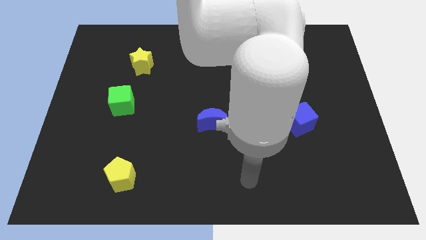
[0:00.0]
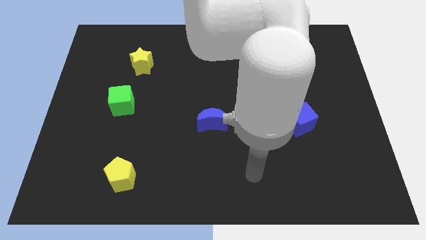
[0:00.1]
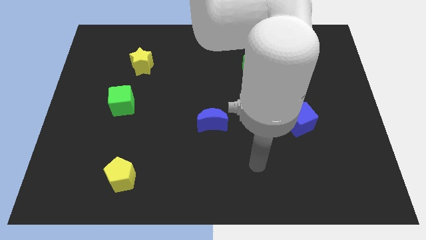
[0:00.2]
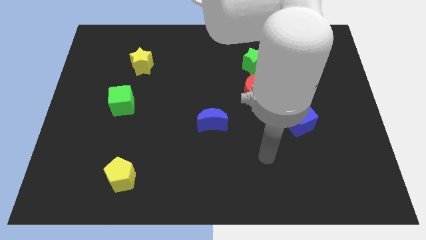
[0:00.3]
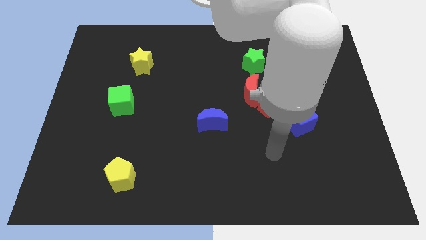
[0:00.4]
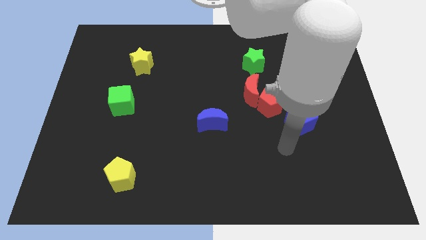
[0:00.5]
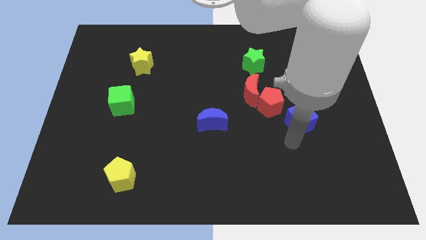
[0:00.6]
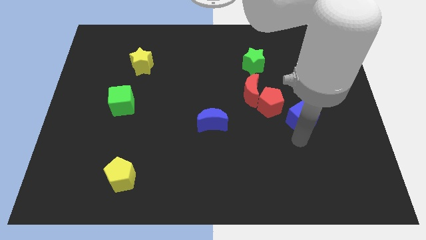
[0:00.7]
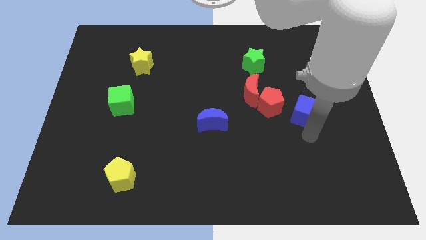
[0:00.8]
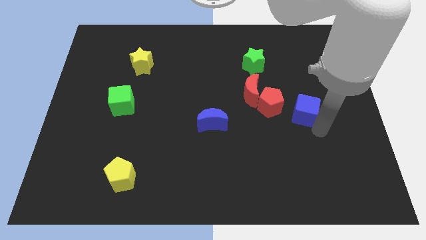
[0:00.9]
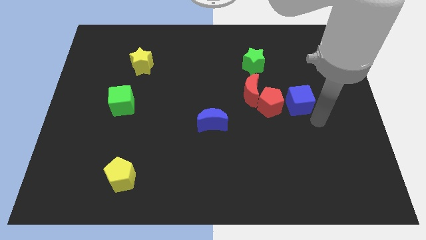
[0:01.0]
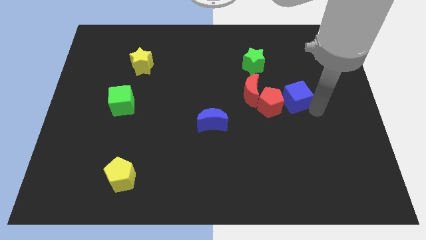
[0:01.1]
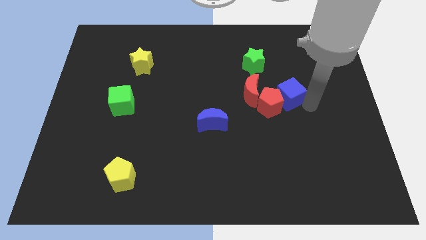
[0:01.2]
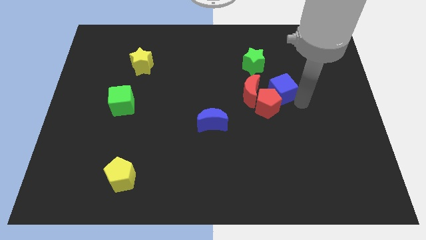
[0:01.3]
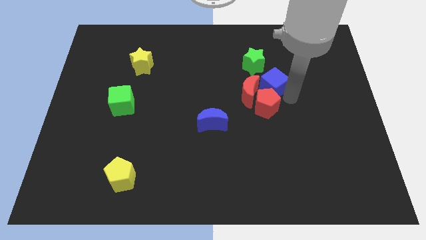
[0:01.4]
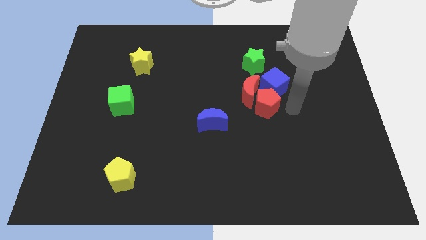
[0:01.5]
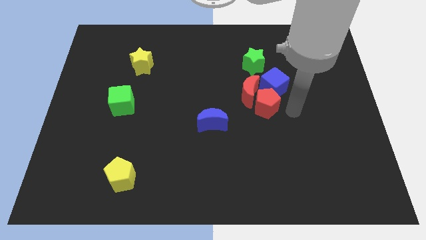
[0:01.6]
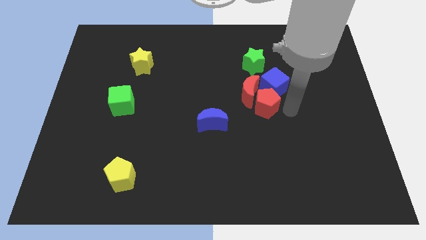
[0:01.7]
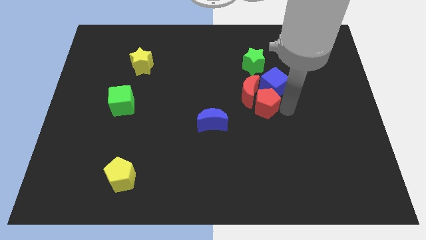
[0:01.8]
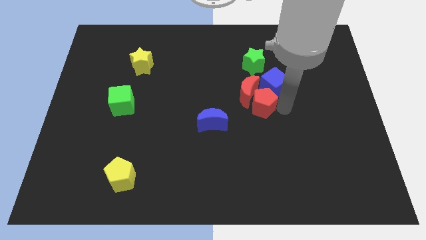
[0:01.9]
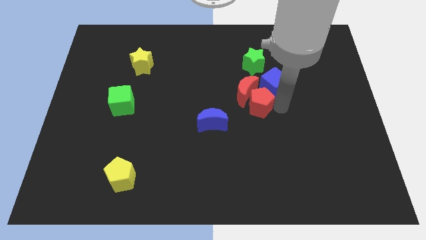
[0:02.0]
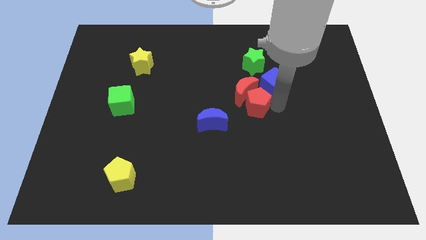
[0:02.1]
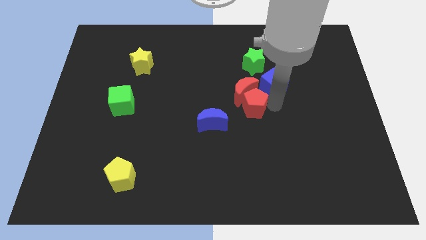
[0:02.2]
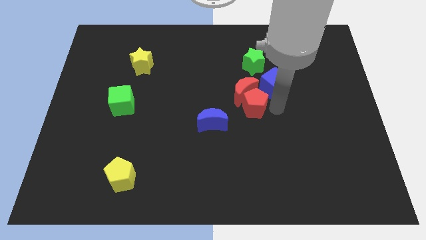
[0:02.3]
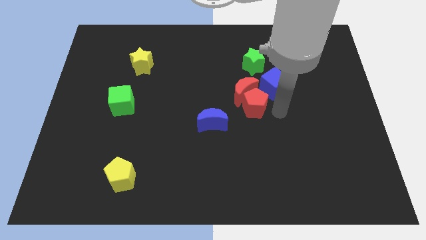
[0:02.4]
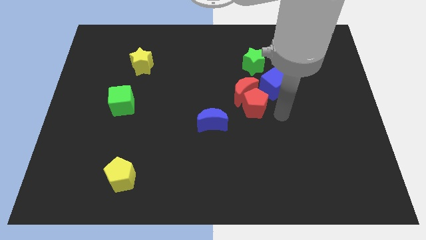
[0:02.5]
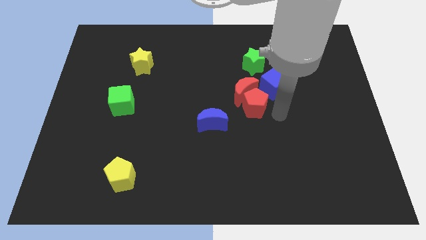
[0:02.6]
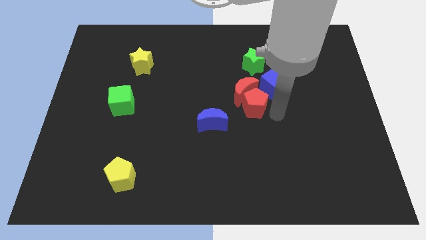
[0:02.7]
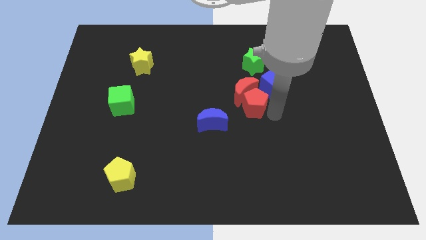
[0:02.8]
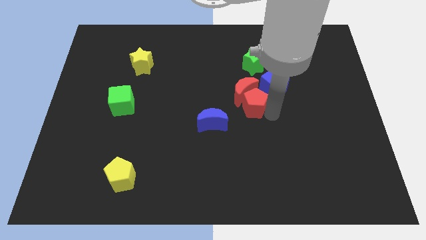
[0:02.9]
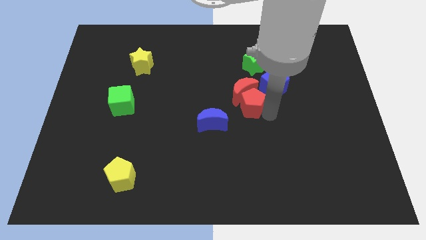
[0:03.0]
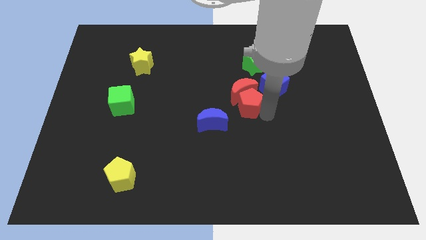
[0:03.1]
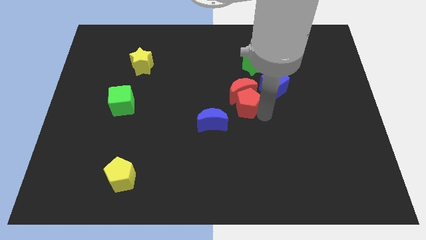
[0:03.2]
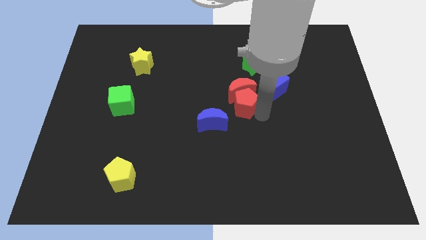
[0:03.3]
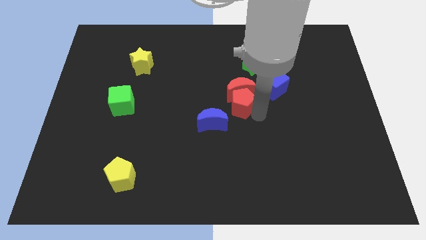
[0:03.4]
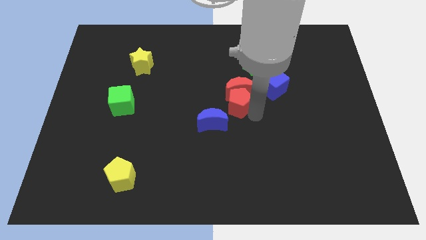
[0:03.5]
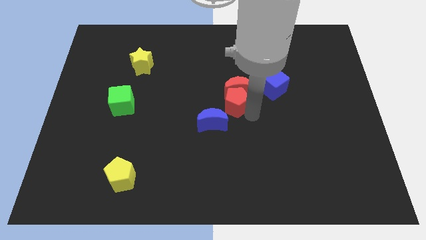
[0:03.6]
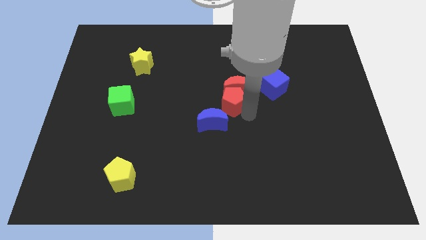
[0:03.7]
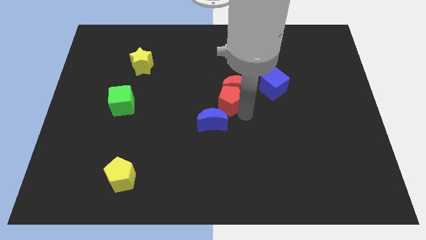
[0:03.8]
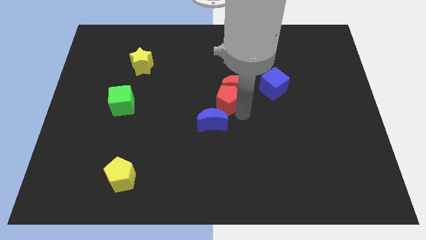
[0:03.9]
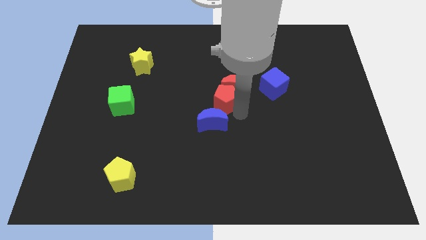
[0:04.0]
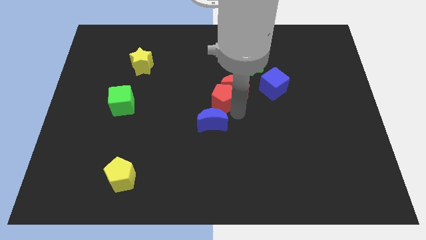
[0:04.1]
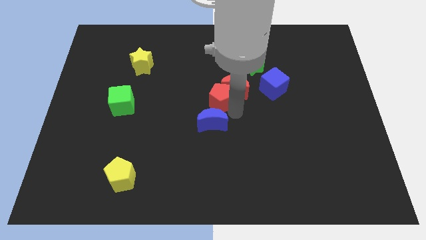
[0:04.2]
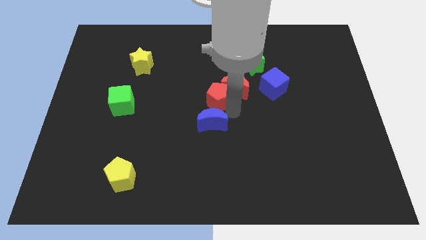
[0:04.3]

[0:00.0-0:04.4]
separate the red pentagon from the red moon and blue cube

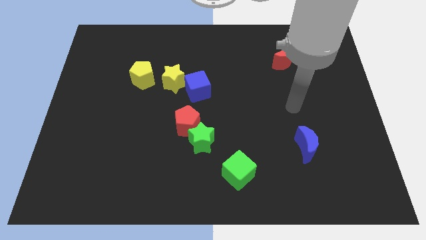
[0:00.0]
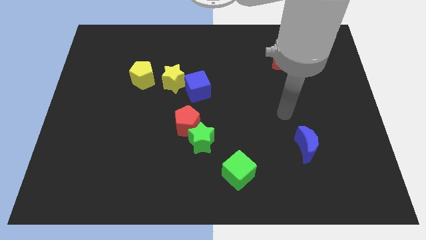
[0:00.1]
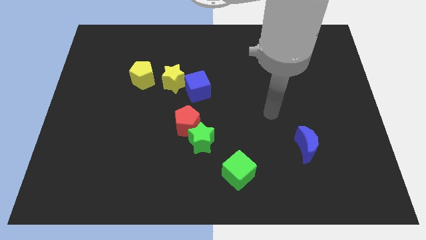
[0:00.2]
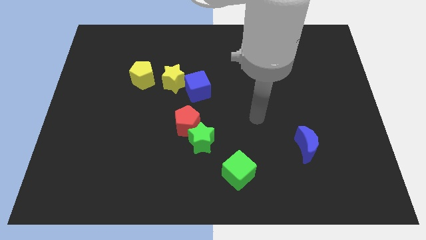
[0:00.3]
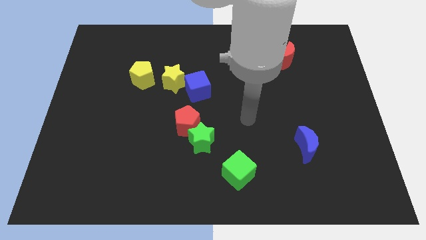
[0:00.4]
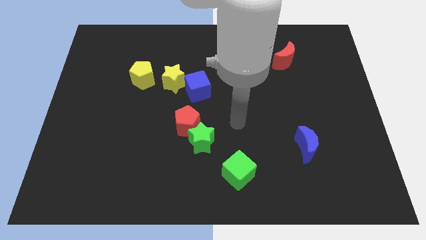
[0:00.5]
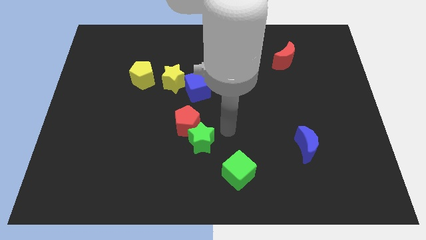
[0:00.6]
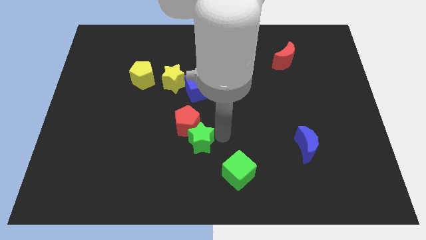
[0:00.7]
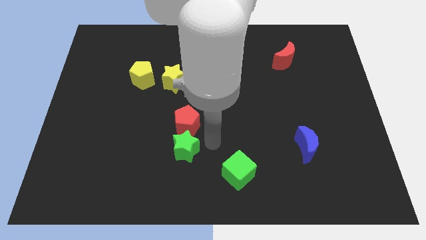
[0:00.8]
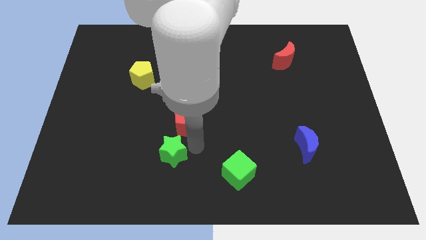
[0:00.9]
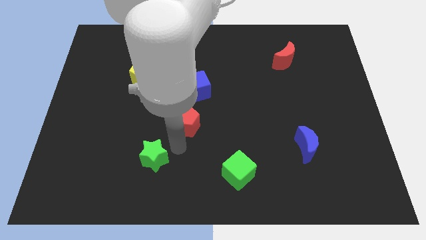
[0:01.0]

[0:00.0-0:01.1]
separate the red pentagon from the green star

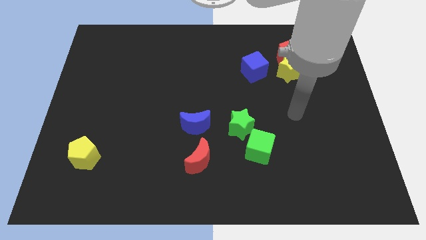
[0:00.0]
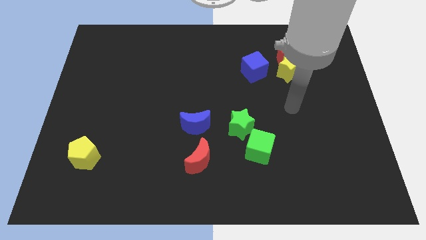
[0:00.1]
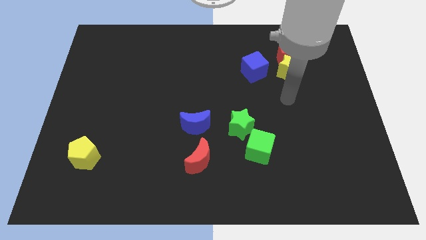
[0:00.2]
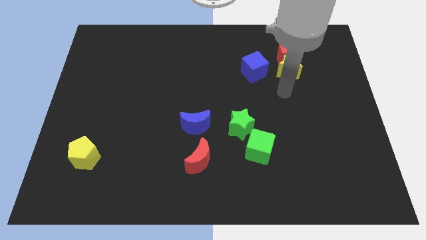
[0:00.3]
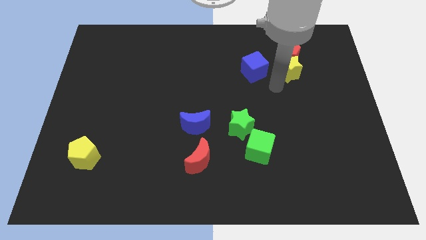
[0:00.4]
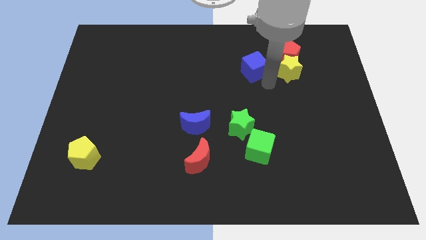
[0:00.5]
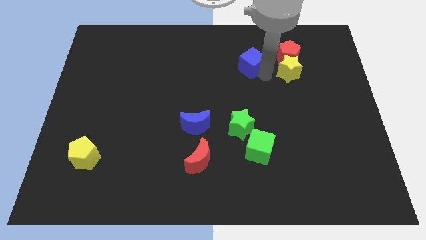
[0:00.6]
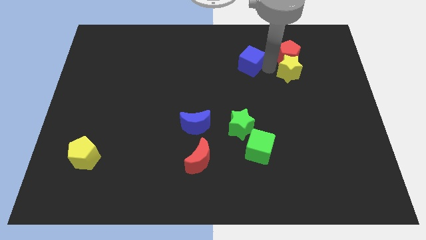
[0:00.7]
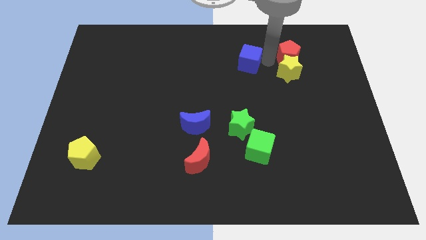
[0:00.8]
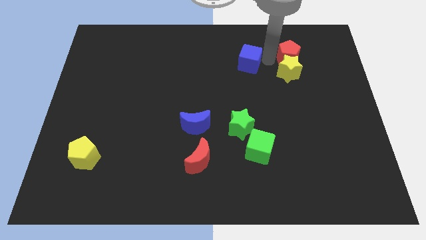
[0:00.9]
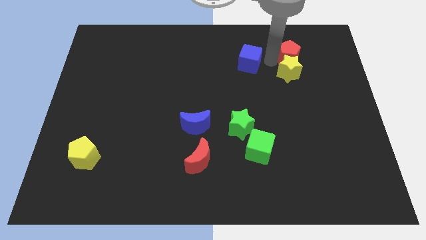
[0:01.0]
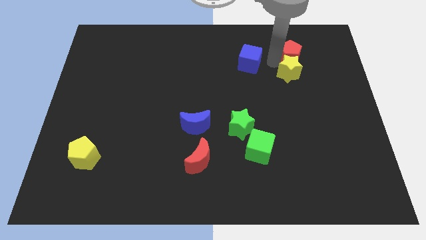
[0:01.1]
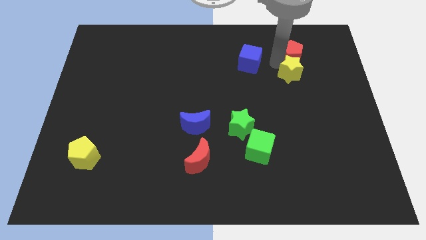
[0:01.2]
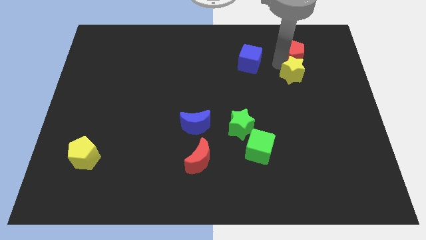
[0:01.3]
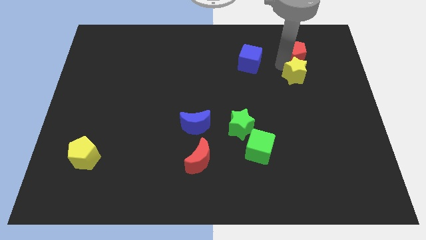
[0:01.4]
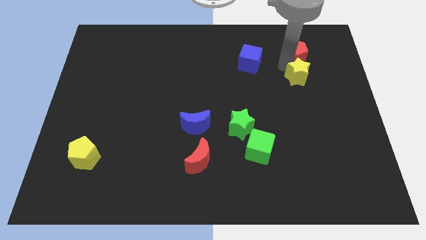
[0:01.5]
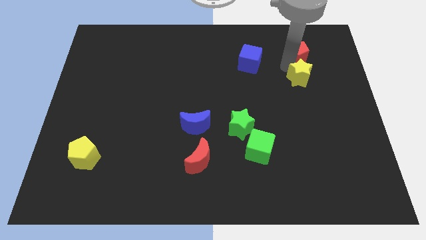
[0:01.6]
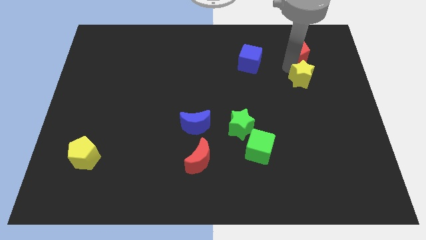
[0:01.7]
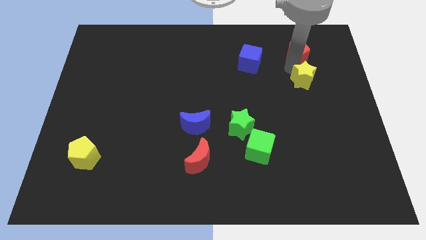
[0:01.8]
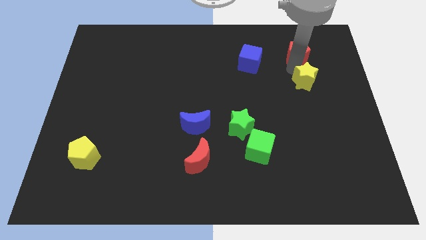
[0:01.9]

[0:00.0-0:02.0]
separate the yellow star from the red pentagon and blue cube

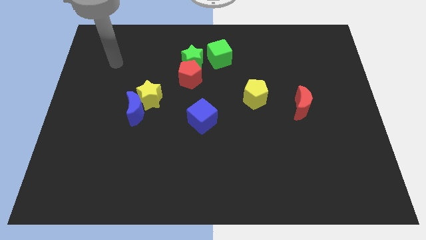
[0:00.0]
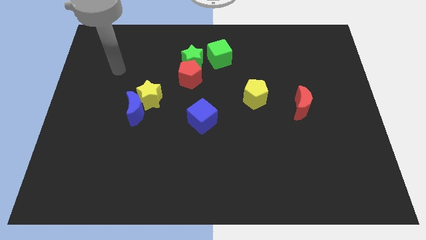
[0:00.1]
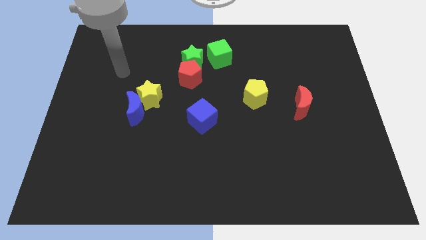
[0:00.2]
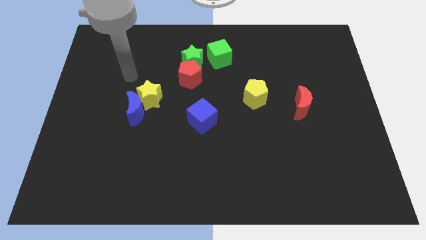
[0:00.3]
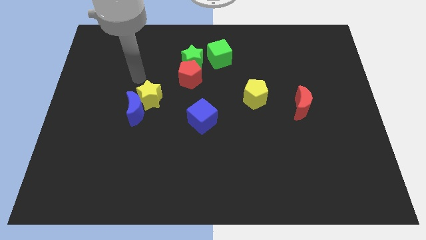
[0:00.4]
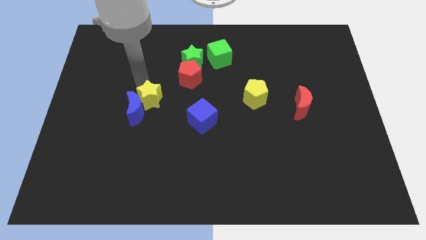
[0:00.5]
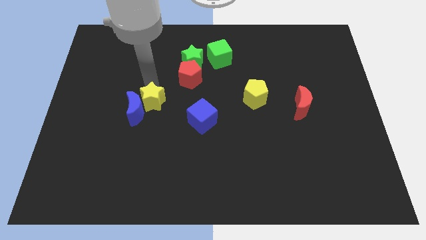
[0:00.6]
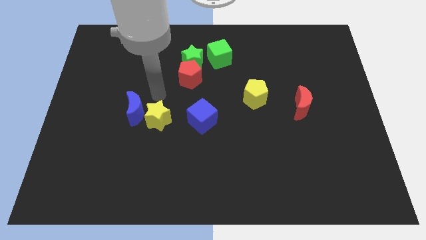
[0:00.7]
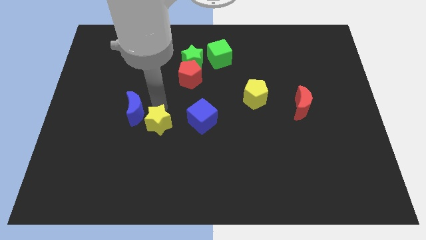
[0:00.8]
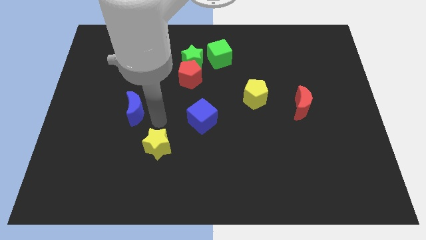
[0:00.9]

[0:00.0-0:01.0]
pull the blue moon apart from the yellow star

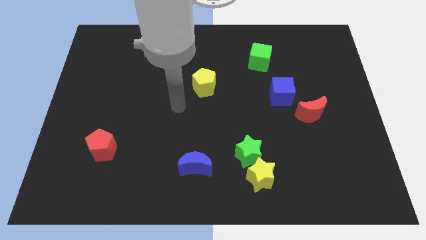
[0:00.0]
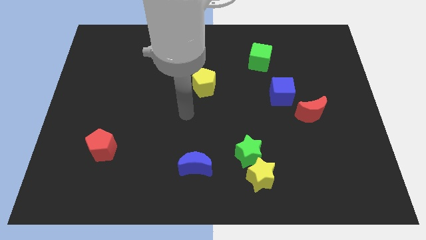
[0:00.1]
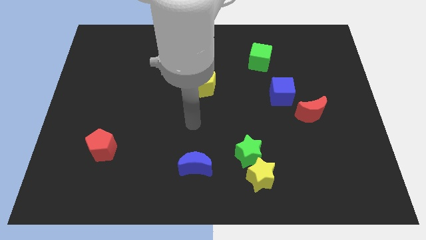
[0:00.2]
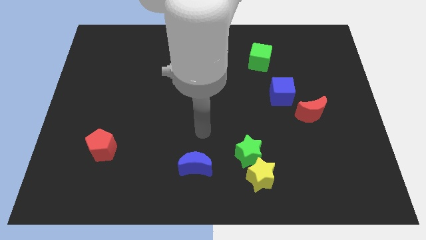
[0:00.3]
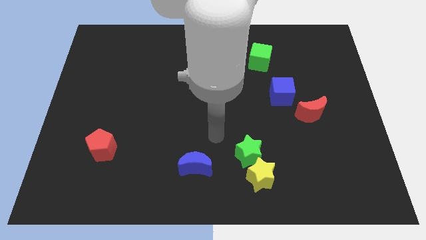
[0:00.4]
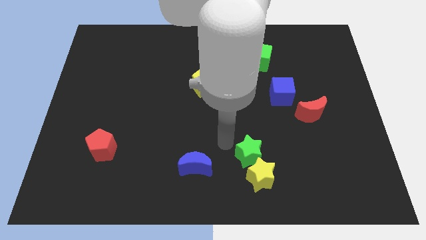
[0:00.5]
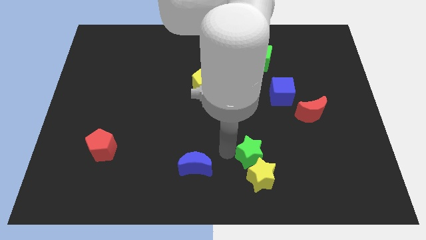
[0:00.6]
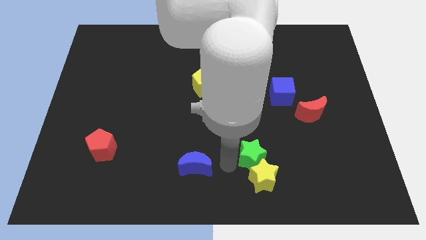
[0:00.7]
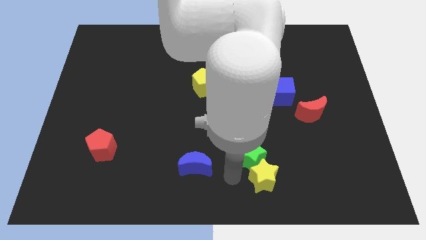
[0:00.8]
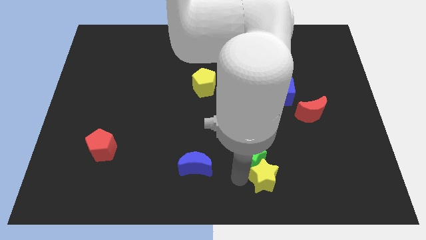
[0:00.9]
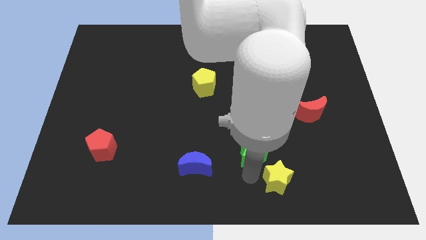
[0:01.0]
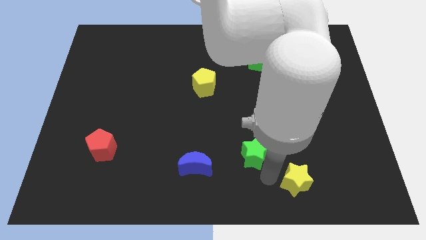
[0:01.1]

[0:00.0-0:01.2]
move the green star away from the yellow star
